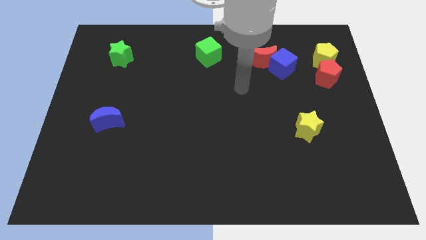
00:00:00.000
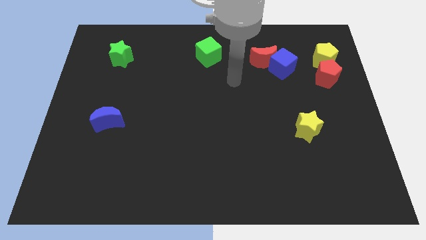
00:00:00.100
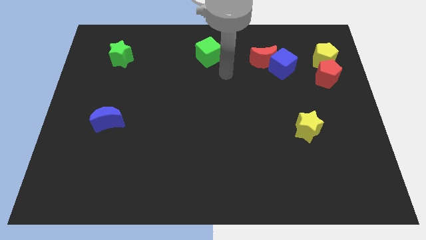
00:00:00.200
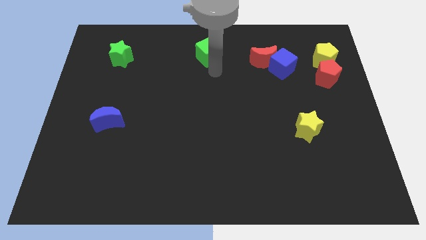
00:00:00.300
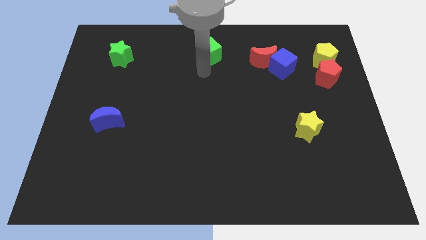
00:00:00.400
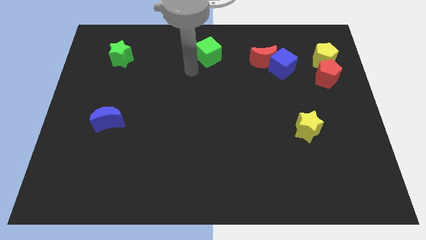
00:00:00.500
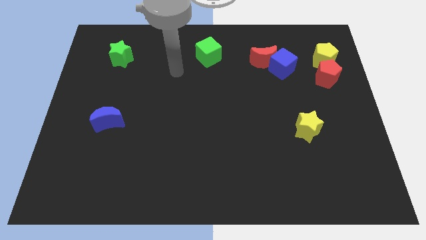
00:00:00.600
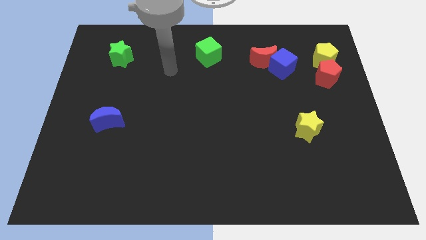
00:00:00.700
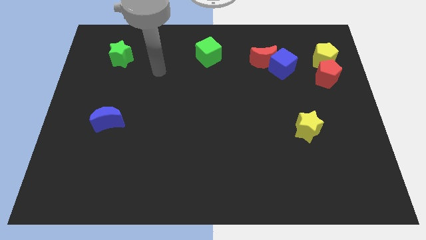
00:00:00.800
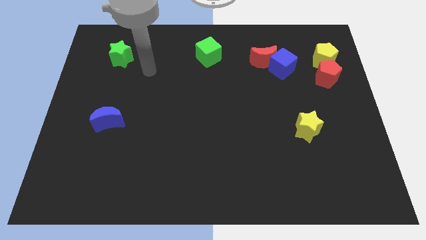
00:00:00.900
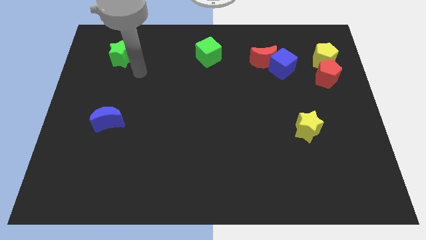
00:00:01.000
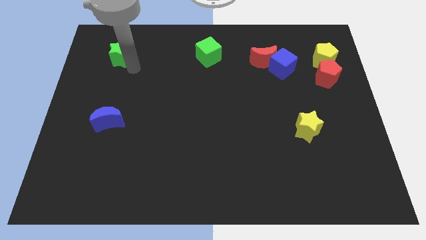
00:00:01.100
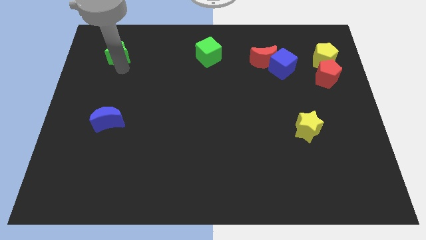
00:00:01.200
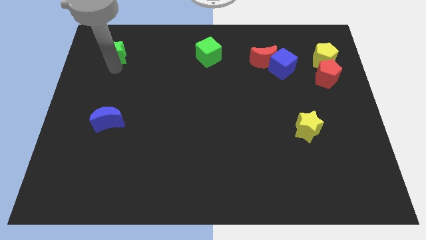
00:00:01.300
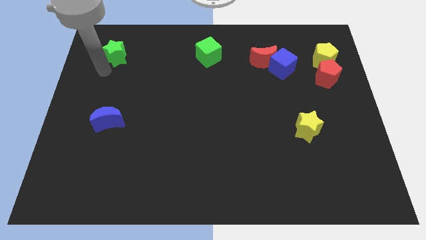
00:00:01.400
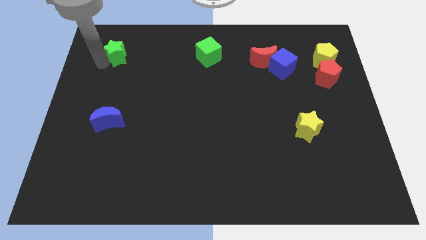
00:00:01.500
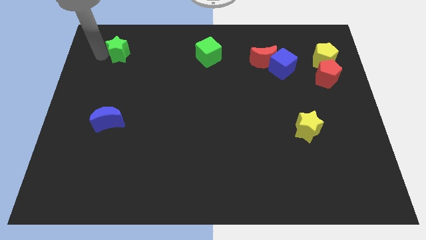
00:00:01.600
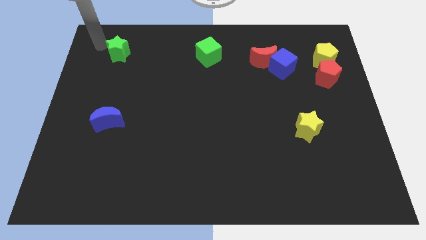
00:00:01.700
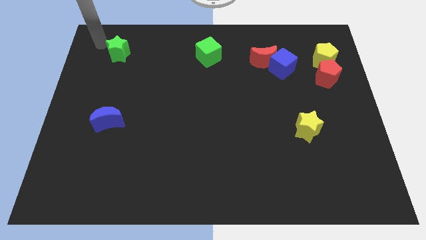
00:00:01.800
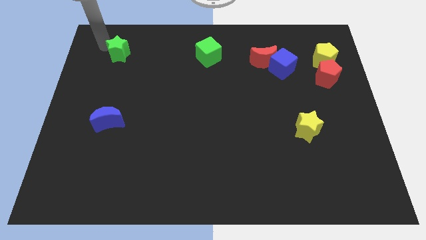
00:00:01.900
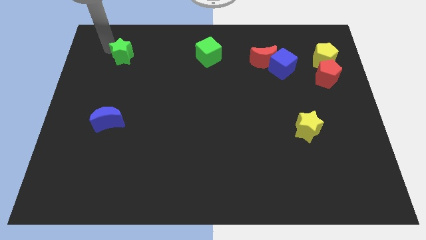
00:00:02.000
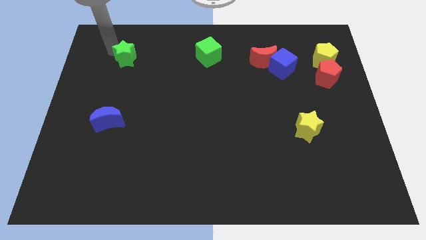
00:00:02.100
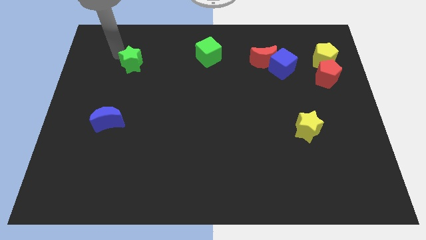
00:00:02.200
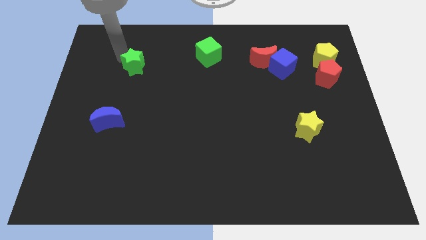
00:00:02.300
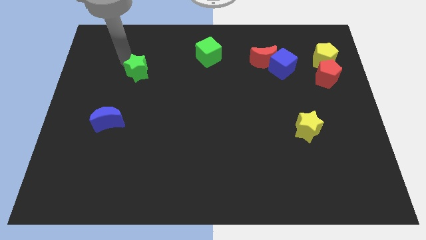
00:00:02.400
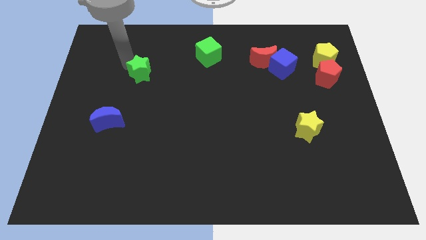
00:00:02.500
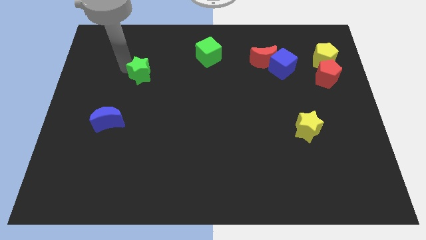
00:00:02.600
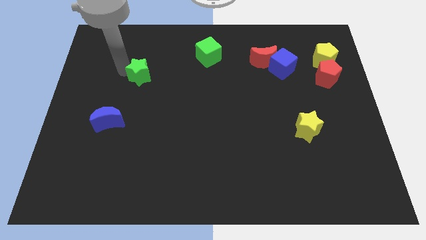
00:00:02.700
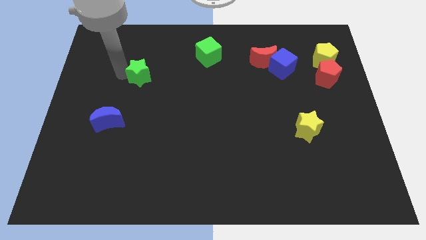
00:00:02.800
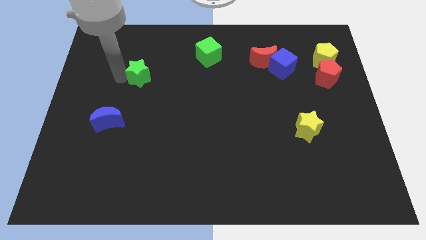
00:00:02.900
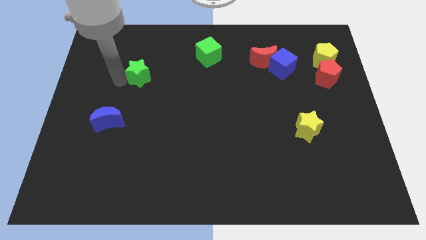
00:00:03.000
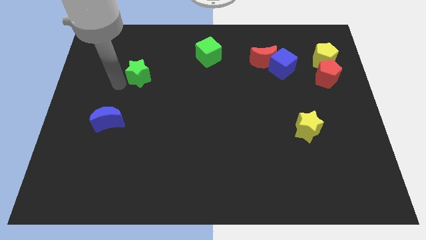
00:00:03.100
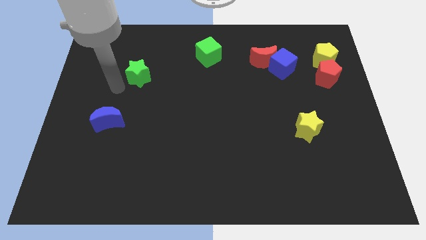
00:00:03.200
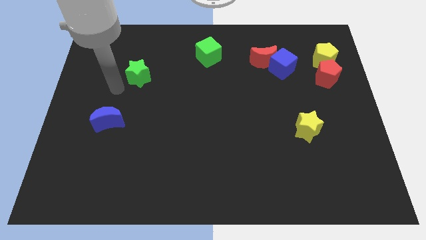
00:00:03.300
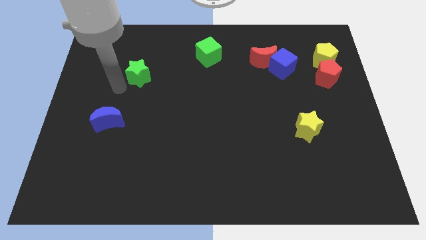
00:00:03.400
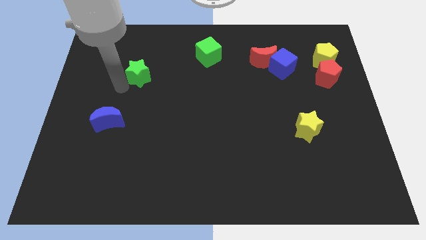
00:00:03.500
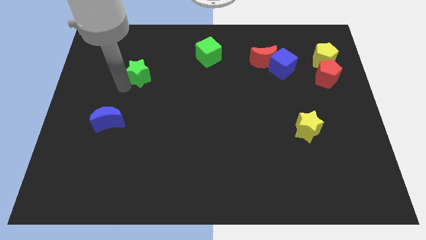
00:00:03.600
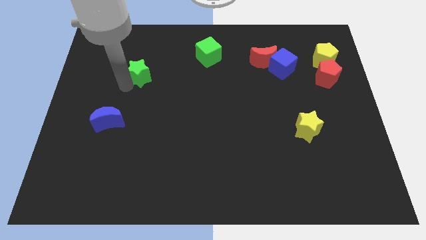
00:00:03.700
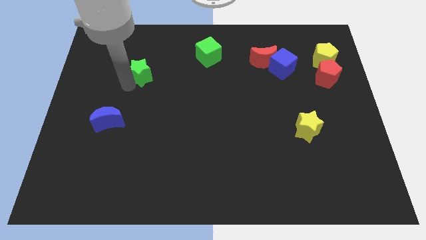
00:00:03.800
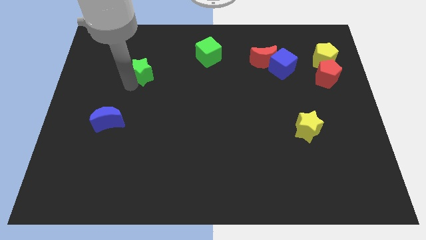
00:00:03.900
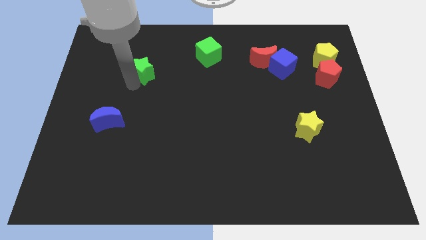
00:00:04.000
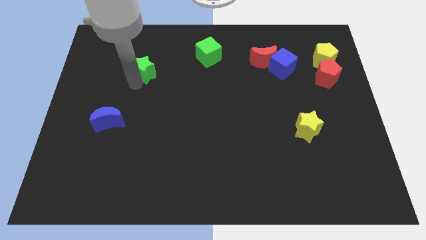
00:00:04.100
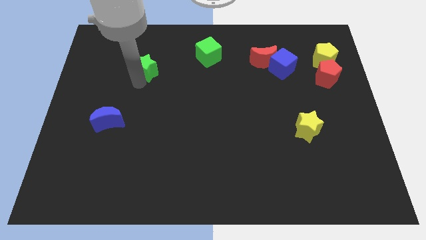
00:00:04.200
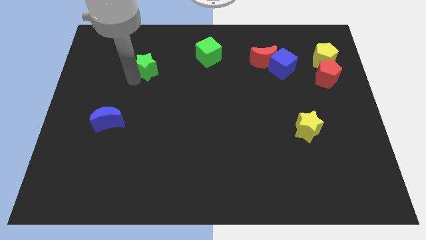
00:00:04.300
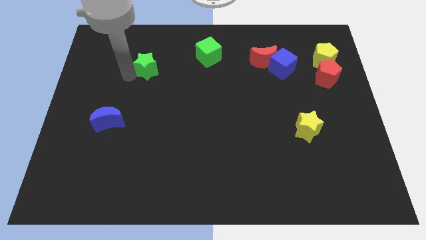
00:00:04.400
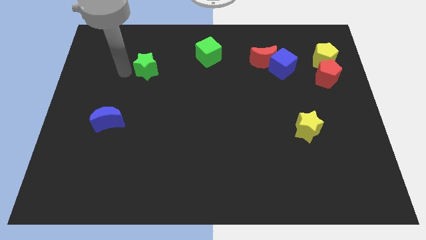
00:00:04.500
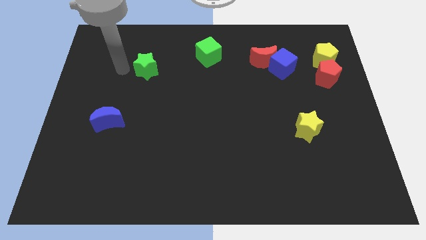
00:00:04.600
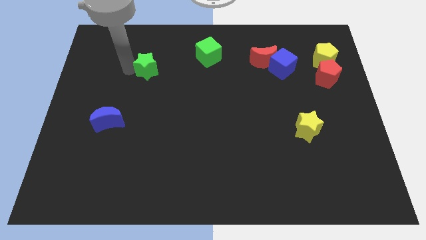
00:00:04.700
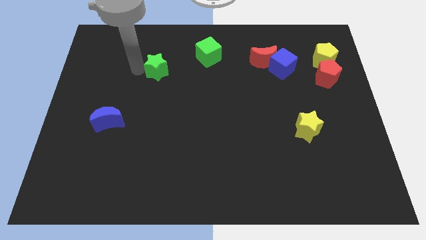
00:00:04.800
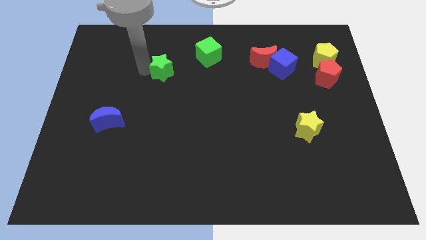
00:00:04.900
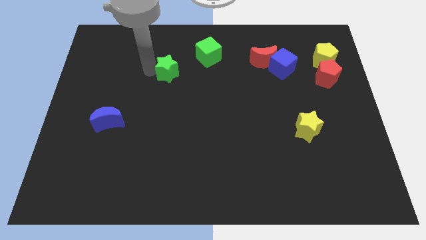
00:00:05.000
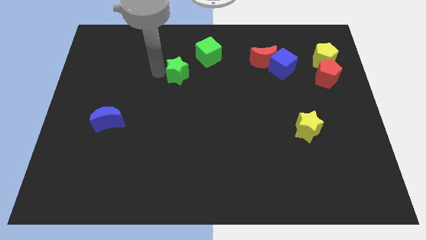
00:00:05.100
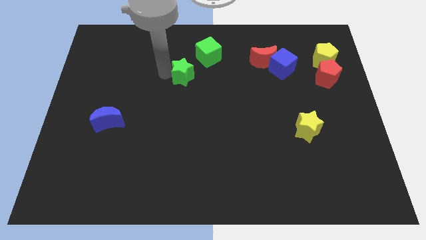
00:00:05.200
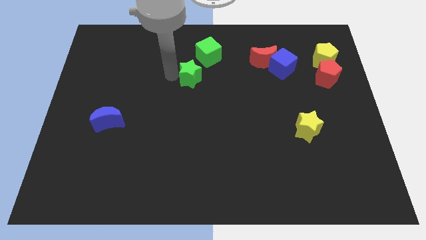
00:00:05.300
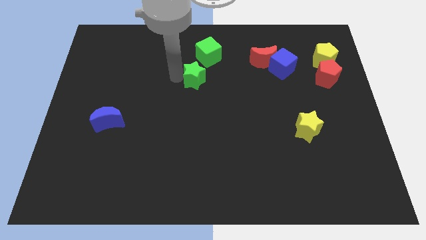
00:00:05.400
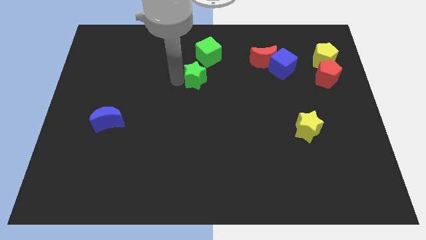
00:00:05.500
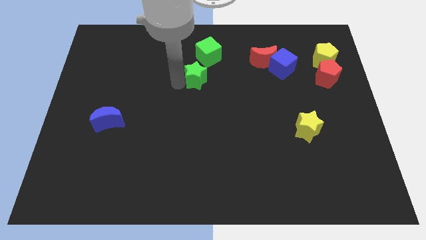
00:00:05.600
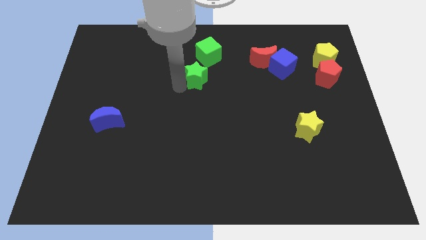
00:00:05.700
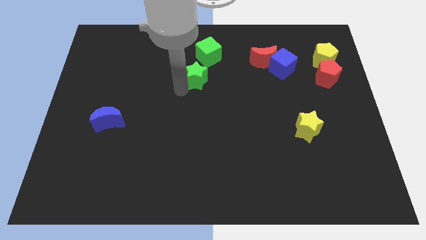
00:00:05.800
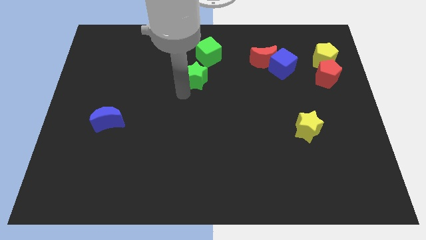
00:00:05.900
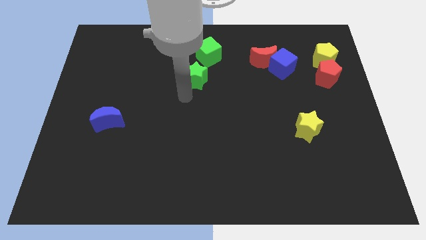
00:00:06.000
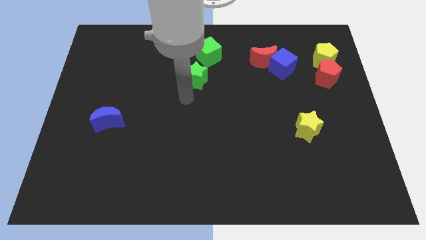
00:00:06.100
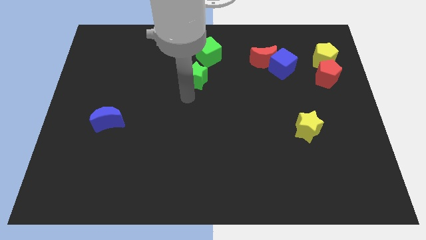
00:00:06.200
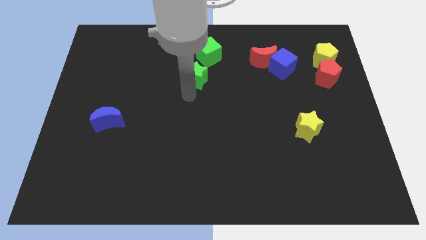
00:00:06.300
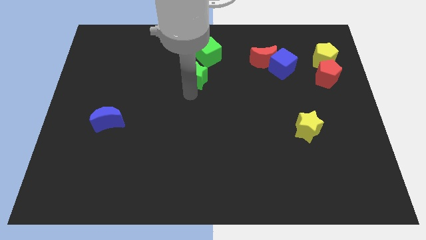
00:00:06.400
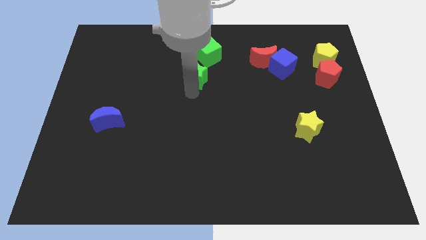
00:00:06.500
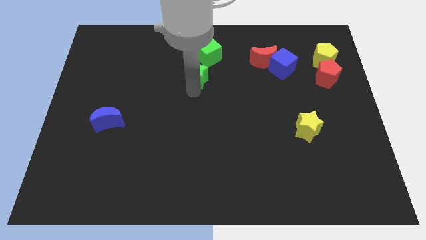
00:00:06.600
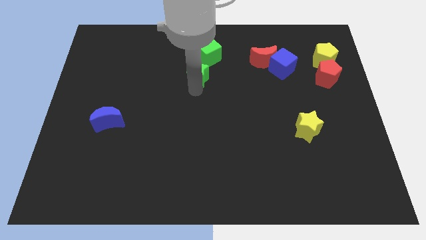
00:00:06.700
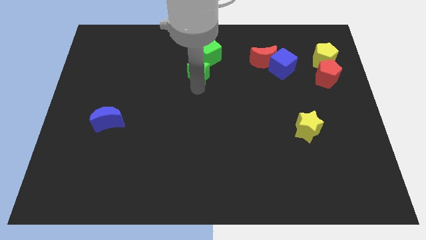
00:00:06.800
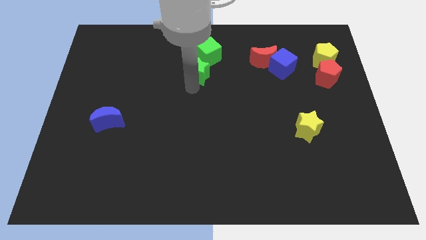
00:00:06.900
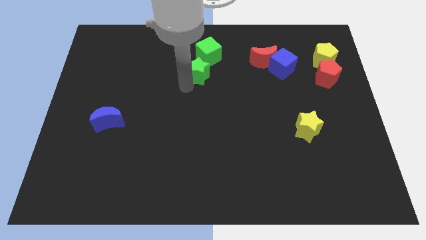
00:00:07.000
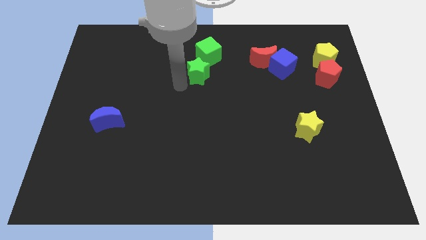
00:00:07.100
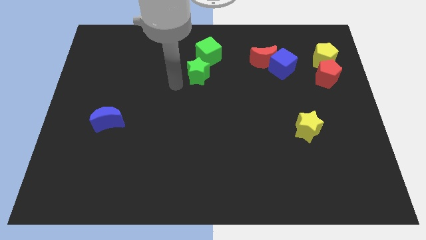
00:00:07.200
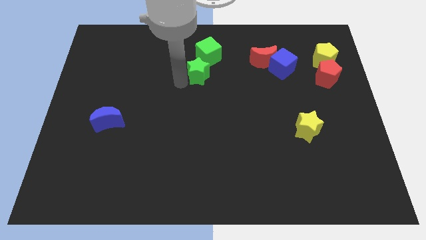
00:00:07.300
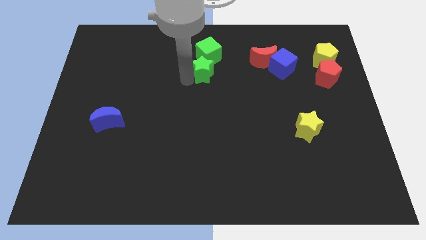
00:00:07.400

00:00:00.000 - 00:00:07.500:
push the green star to the right

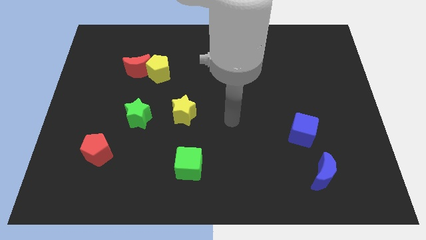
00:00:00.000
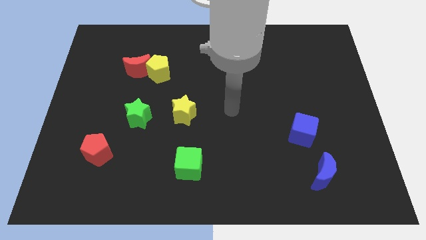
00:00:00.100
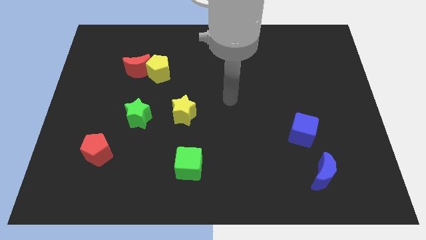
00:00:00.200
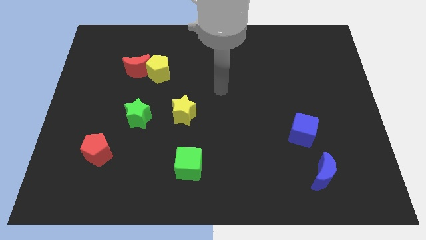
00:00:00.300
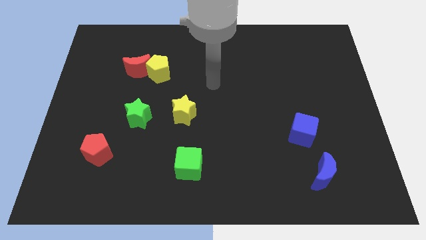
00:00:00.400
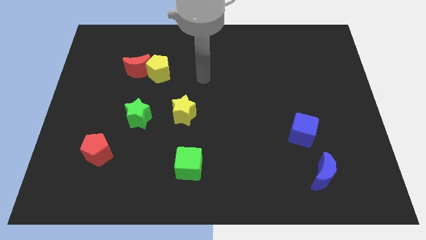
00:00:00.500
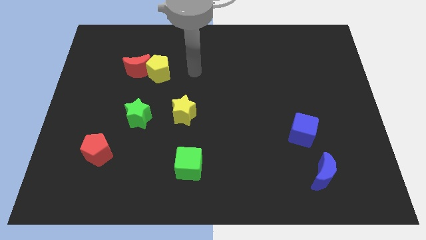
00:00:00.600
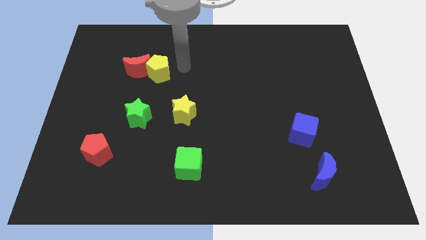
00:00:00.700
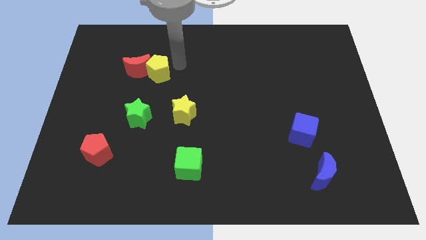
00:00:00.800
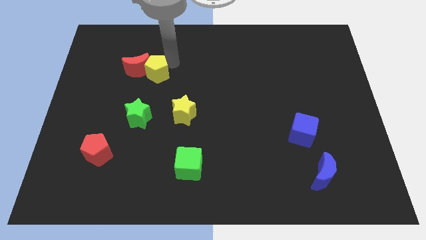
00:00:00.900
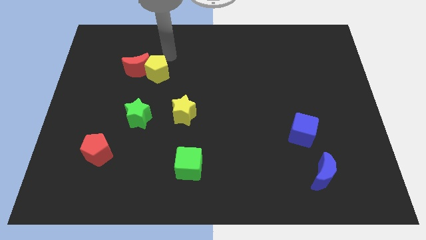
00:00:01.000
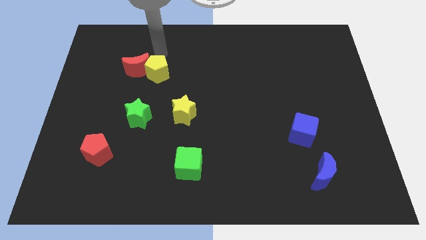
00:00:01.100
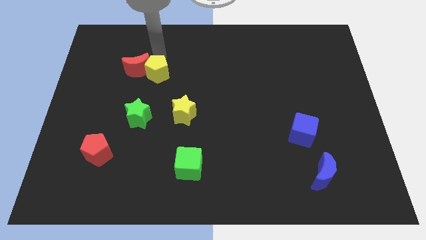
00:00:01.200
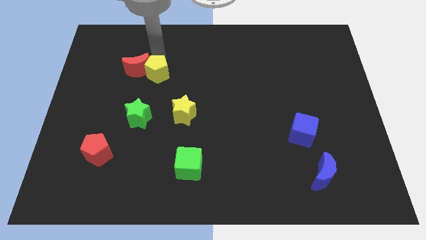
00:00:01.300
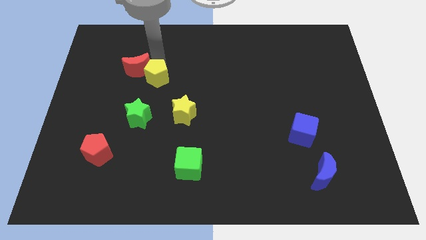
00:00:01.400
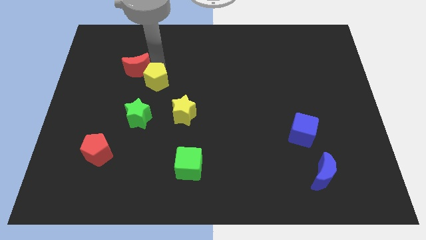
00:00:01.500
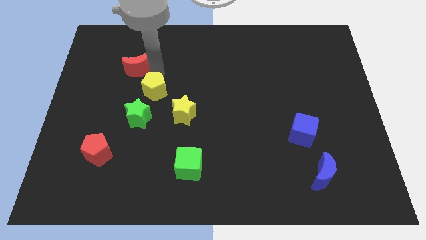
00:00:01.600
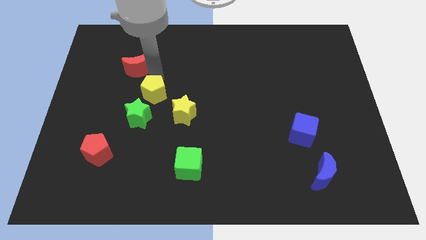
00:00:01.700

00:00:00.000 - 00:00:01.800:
slide the yellow pentagon downwards somewhat
